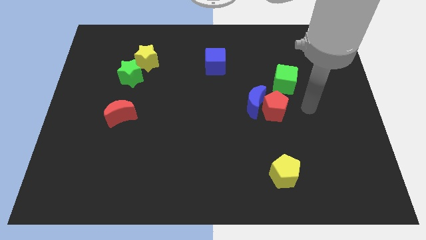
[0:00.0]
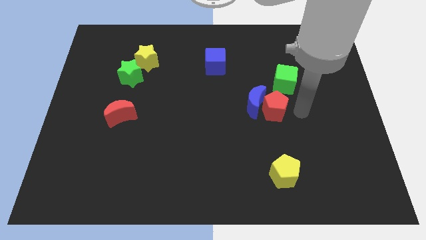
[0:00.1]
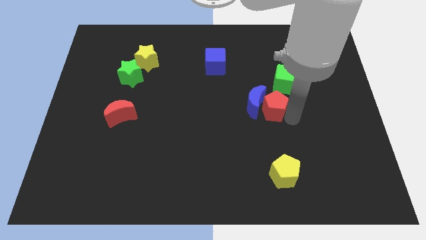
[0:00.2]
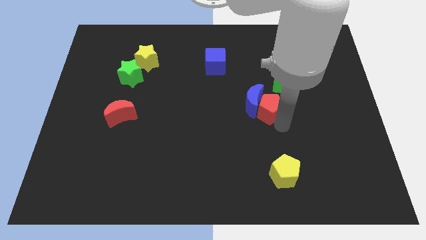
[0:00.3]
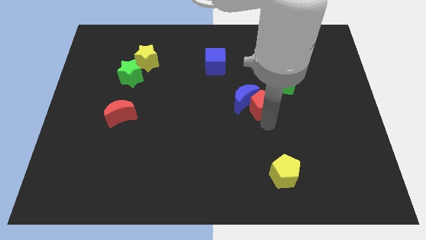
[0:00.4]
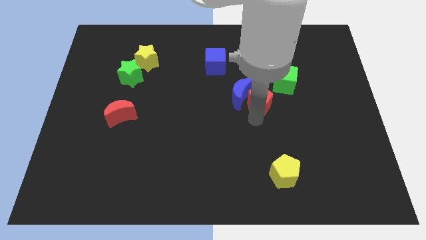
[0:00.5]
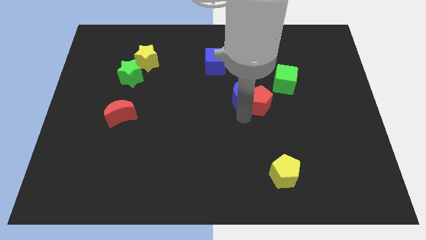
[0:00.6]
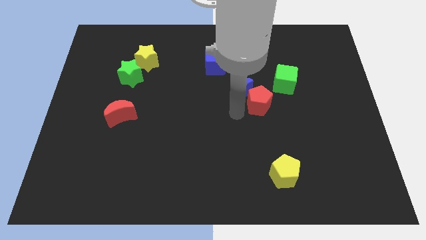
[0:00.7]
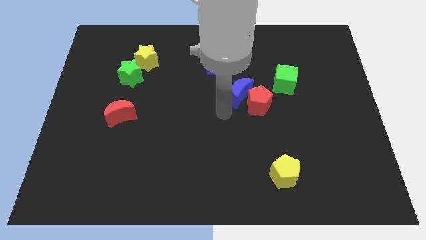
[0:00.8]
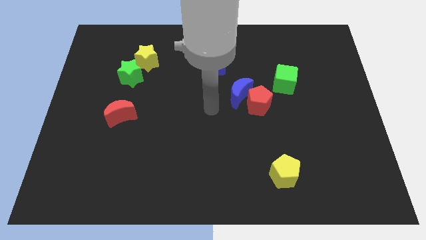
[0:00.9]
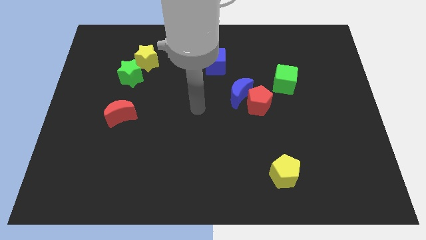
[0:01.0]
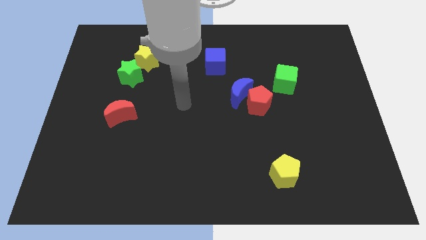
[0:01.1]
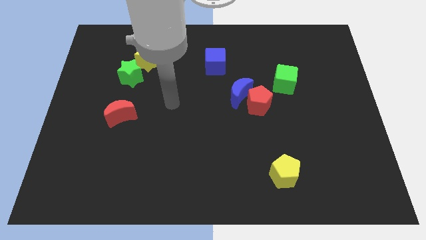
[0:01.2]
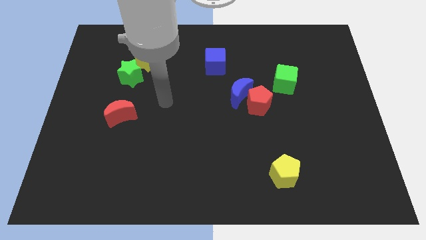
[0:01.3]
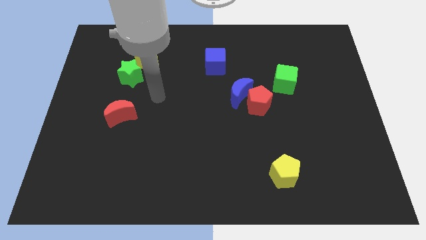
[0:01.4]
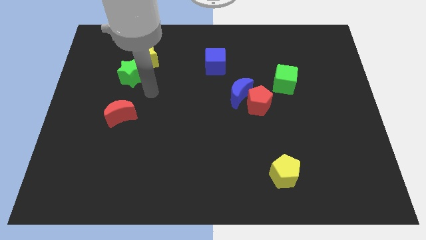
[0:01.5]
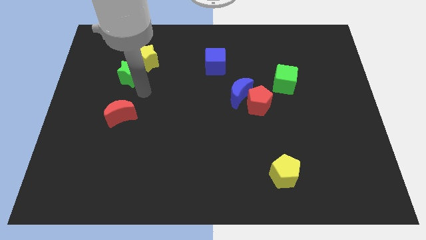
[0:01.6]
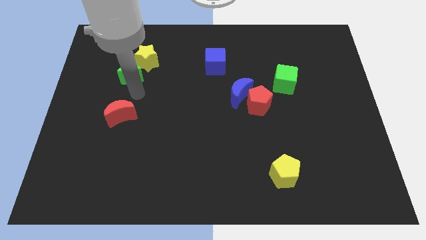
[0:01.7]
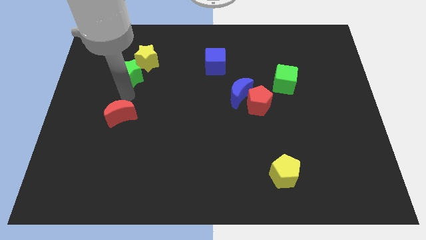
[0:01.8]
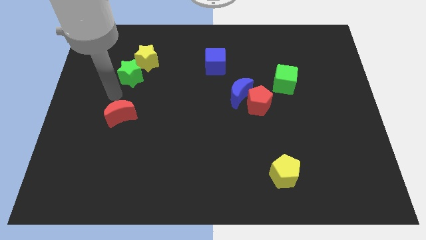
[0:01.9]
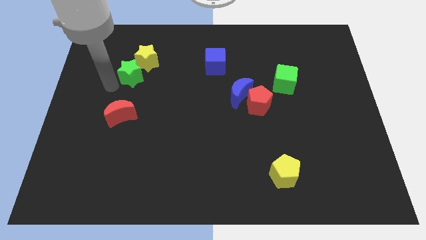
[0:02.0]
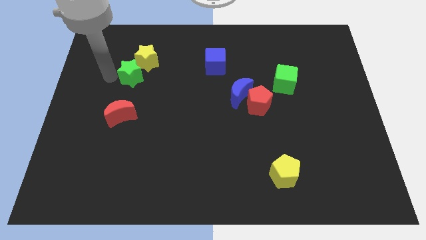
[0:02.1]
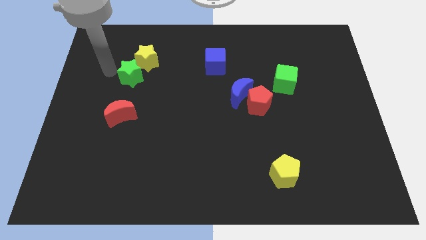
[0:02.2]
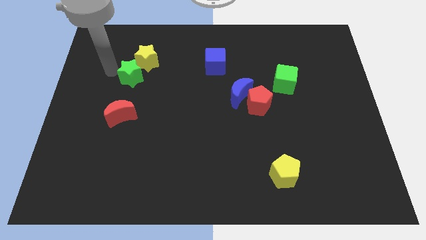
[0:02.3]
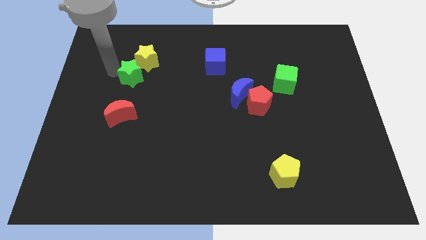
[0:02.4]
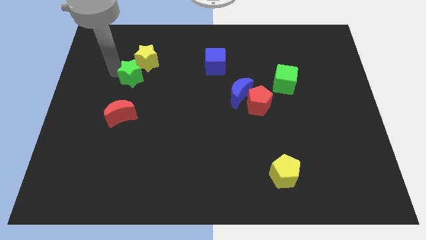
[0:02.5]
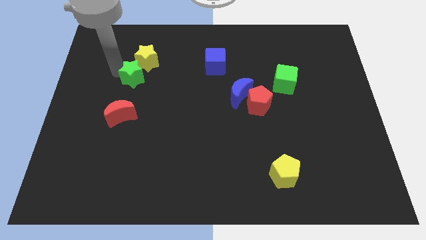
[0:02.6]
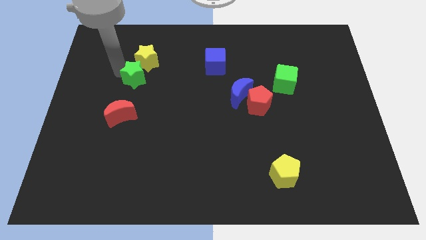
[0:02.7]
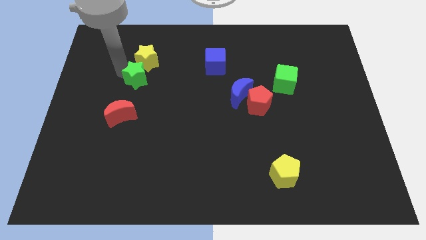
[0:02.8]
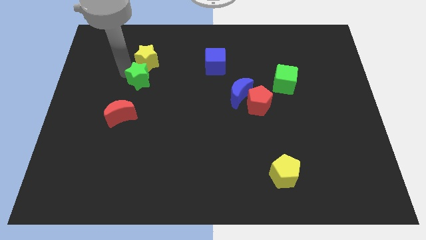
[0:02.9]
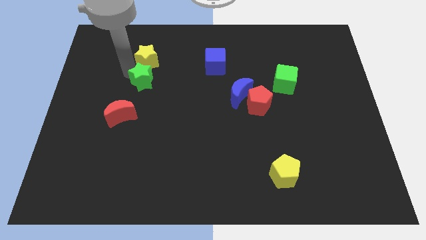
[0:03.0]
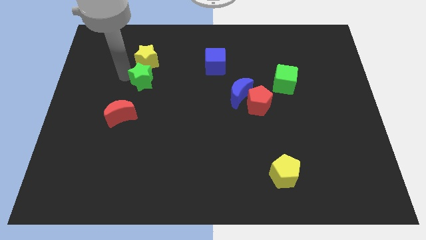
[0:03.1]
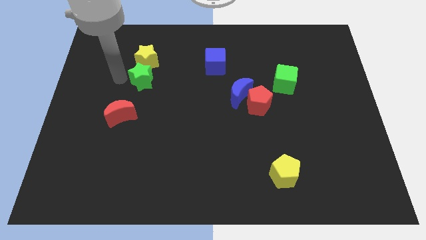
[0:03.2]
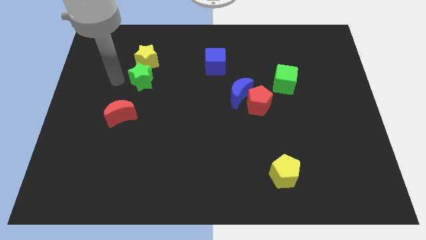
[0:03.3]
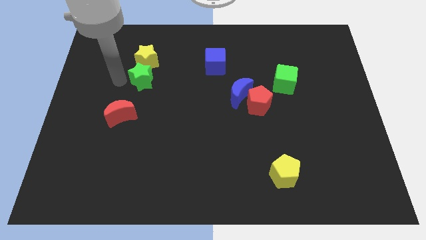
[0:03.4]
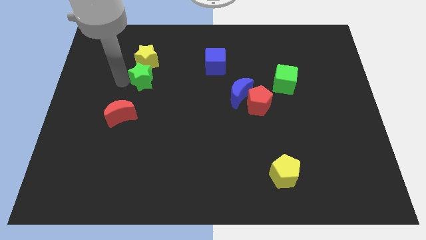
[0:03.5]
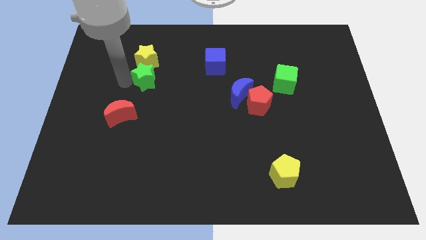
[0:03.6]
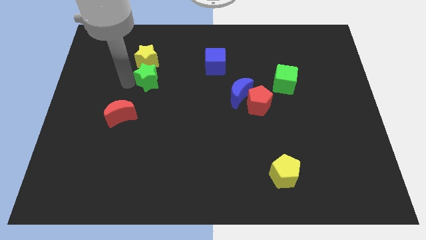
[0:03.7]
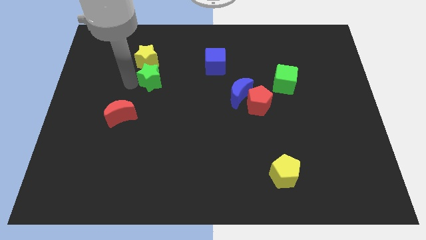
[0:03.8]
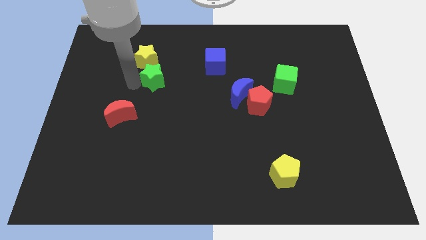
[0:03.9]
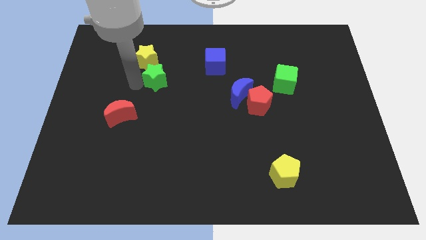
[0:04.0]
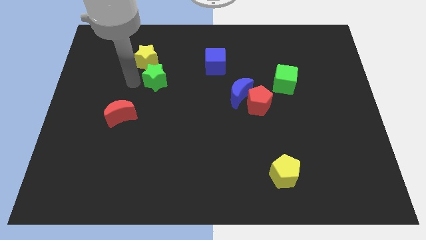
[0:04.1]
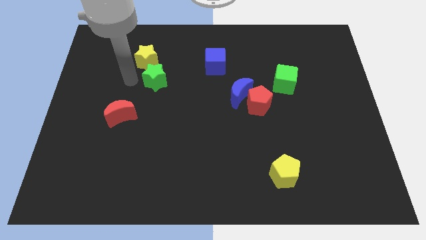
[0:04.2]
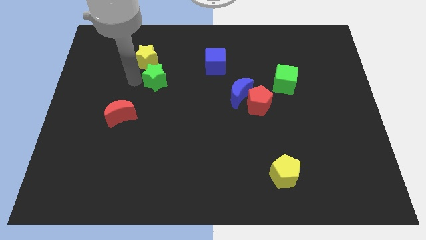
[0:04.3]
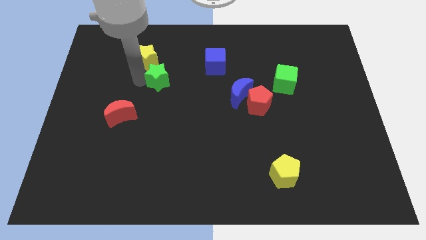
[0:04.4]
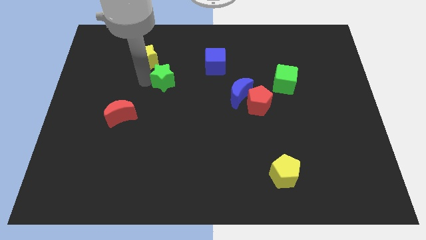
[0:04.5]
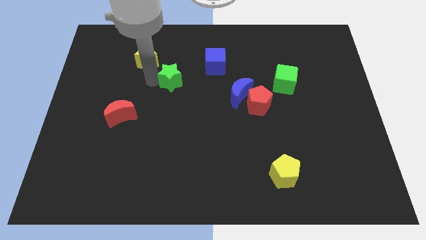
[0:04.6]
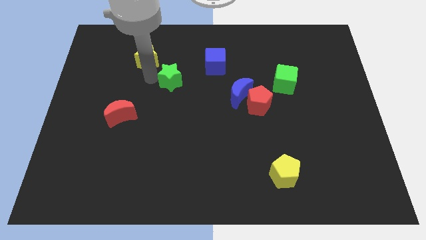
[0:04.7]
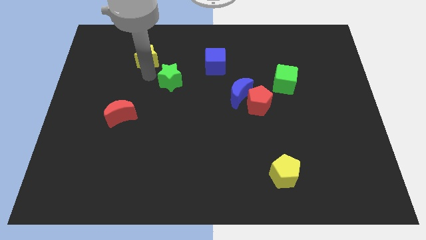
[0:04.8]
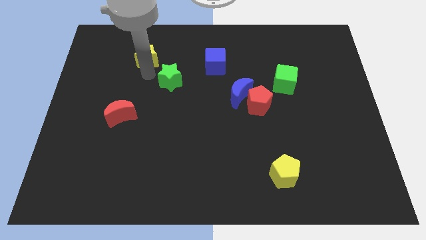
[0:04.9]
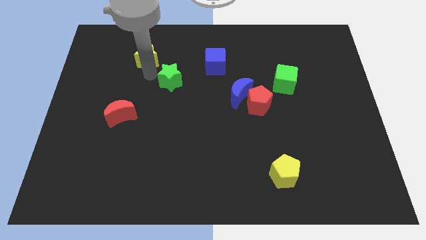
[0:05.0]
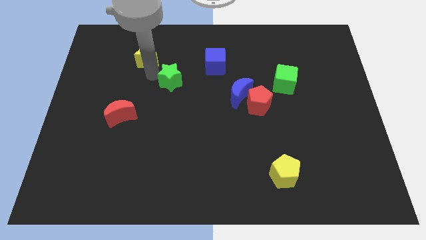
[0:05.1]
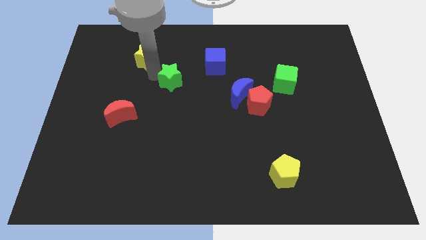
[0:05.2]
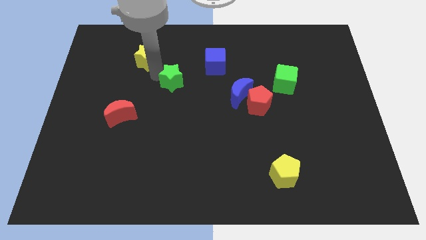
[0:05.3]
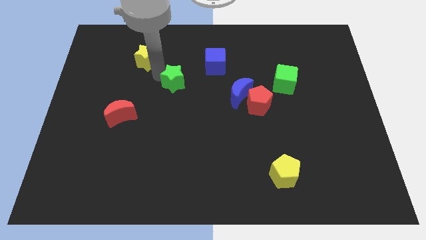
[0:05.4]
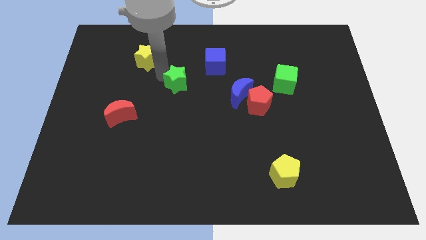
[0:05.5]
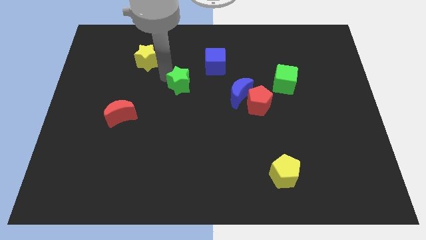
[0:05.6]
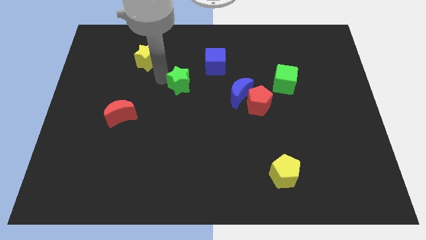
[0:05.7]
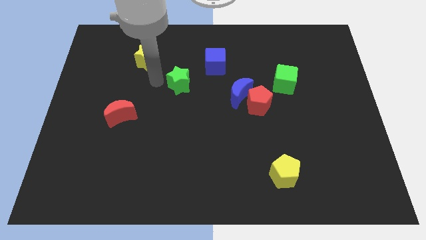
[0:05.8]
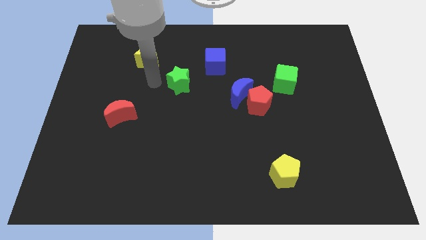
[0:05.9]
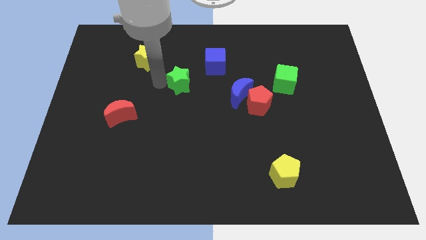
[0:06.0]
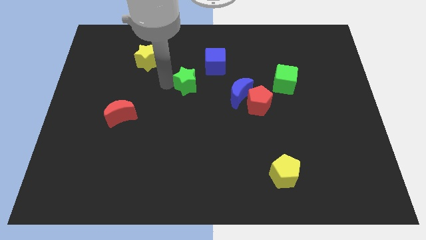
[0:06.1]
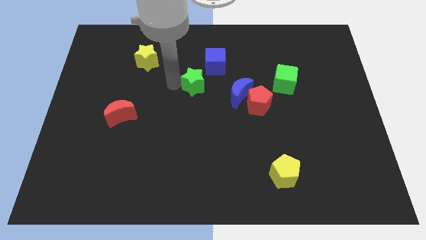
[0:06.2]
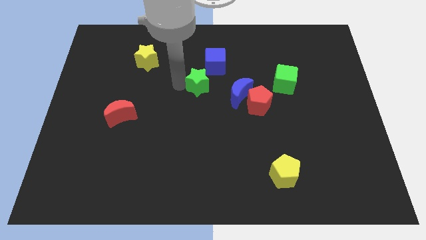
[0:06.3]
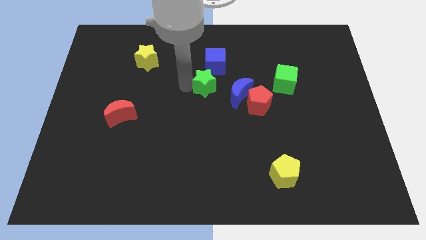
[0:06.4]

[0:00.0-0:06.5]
slide the green star to the top left of the blue moon
